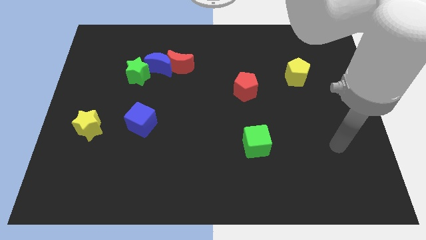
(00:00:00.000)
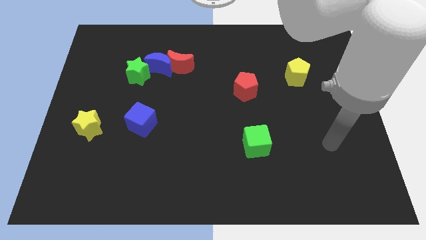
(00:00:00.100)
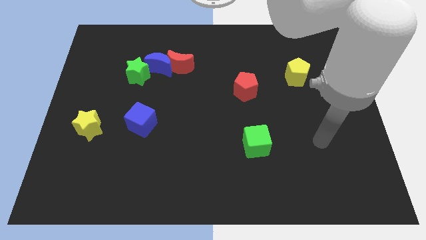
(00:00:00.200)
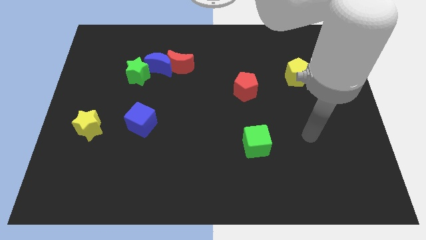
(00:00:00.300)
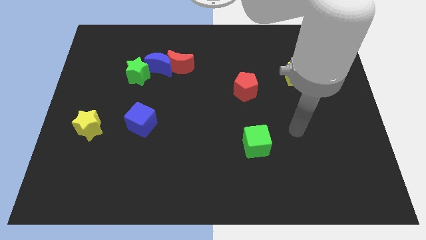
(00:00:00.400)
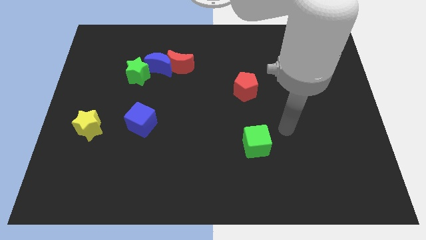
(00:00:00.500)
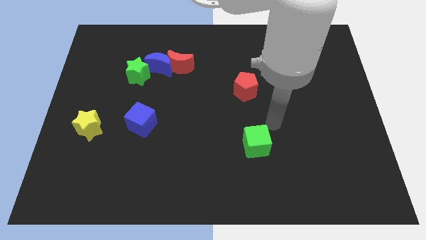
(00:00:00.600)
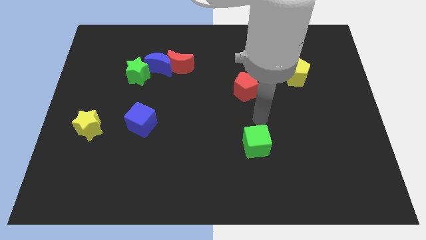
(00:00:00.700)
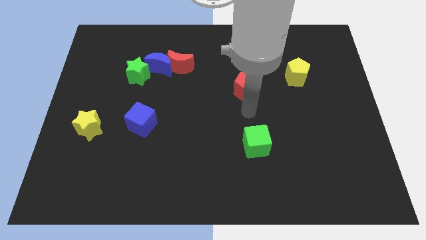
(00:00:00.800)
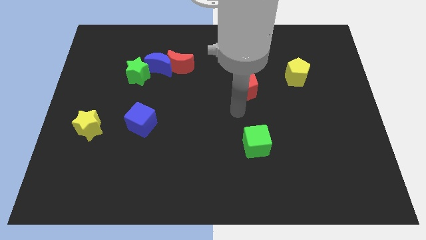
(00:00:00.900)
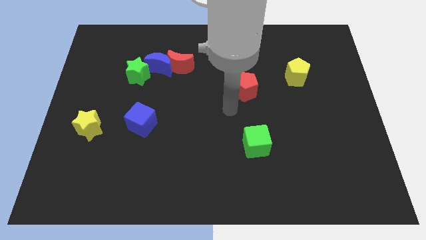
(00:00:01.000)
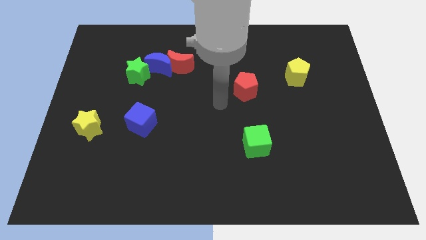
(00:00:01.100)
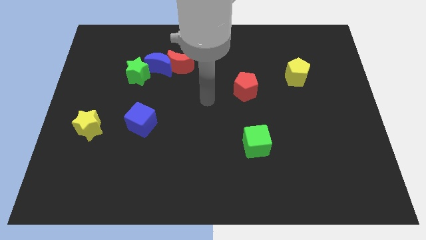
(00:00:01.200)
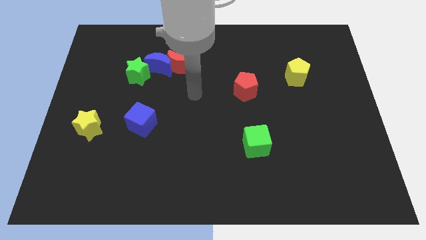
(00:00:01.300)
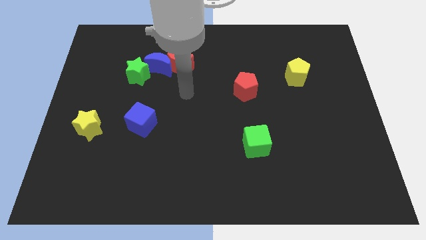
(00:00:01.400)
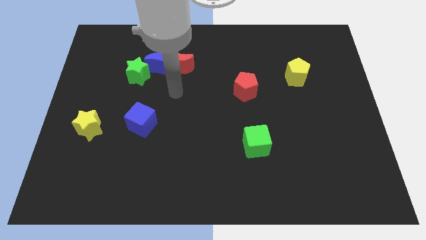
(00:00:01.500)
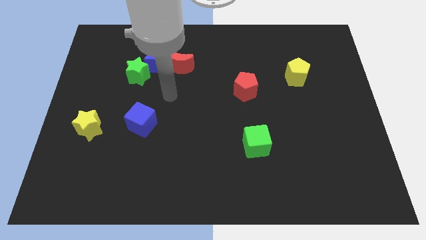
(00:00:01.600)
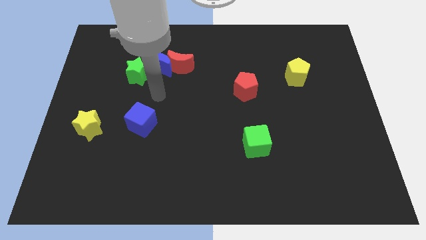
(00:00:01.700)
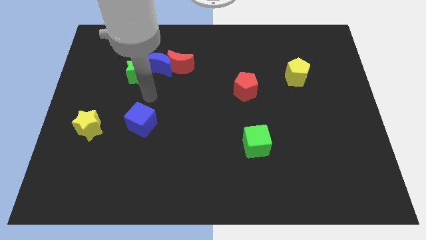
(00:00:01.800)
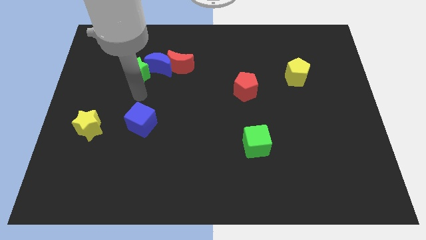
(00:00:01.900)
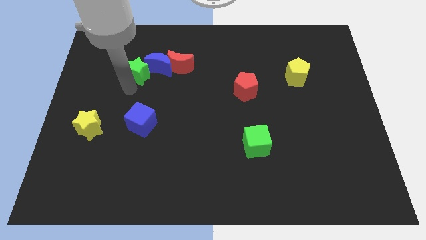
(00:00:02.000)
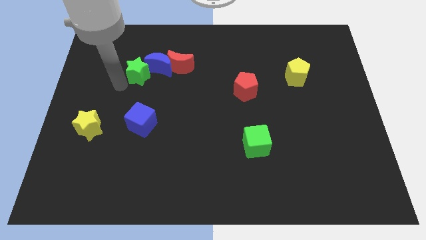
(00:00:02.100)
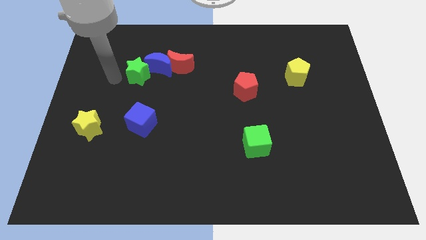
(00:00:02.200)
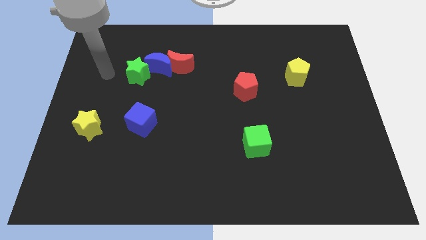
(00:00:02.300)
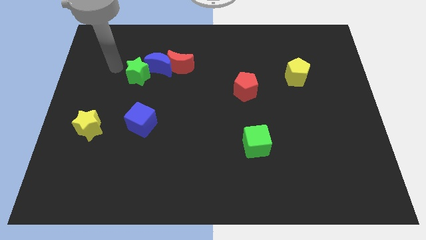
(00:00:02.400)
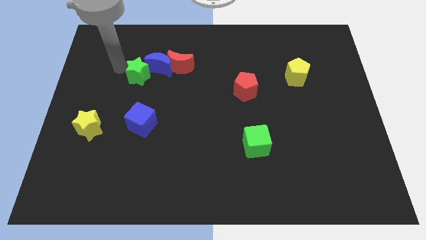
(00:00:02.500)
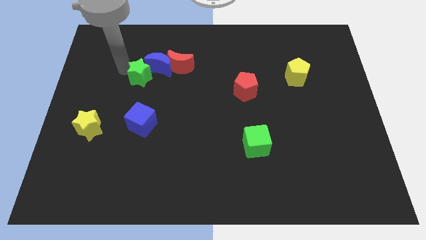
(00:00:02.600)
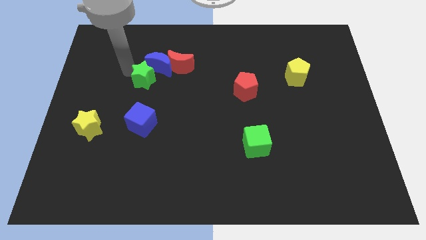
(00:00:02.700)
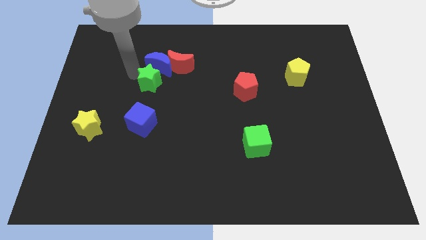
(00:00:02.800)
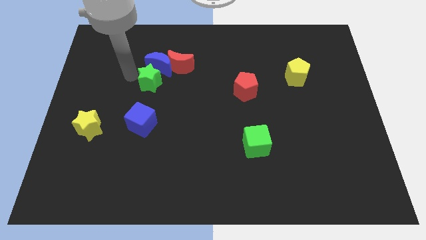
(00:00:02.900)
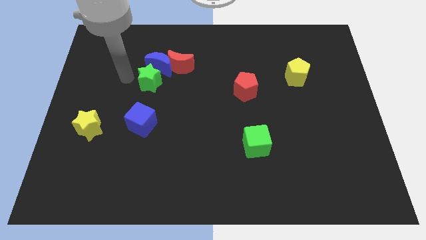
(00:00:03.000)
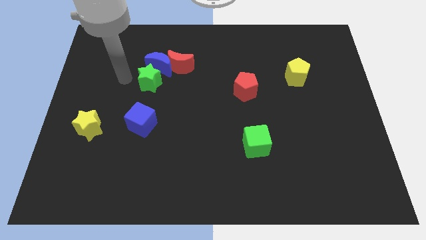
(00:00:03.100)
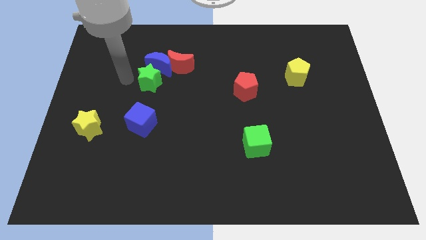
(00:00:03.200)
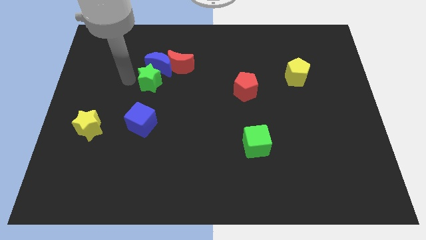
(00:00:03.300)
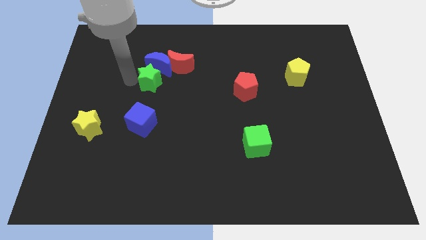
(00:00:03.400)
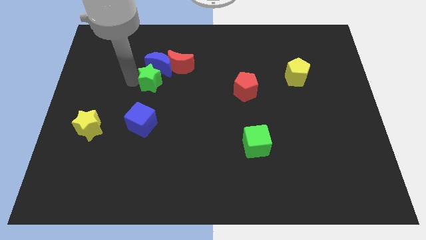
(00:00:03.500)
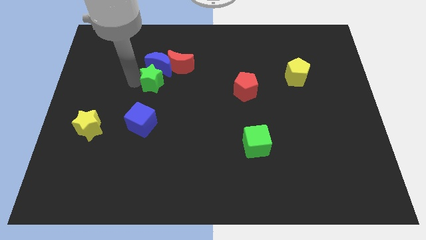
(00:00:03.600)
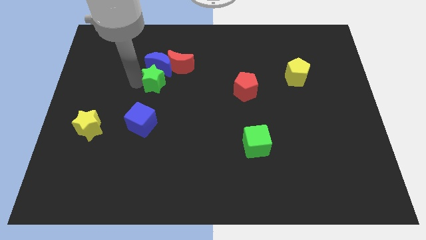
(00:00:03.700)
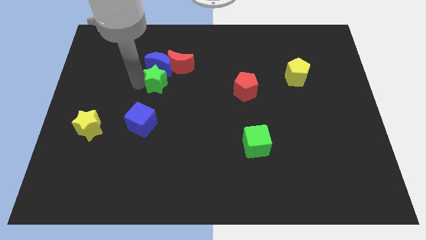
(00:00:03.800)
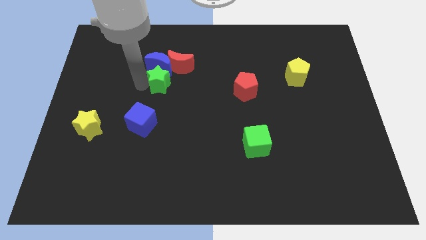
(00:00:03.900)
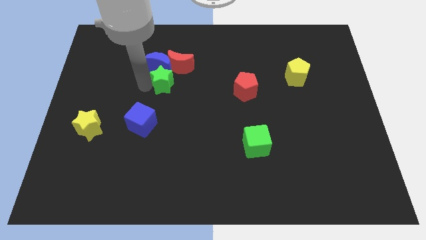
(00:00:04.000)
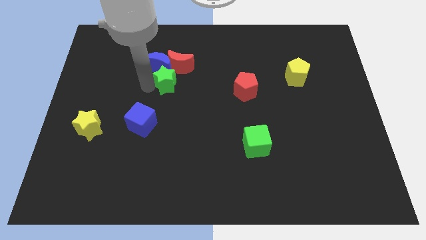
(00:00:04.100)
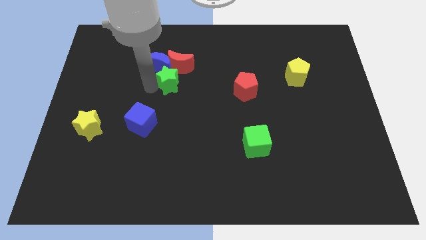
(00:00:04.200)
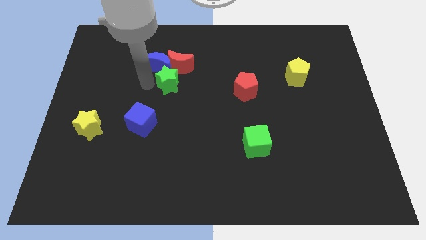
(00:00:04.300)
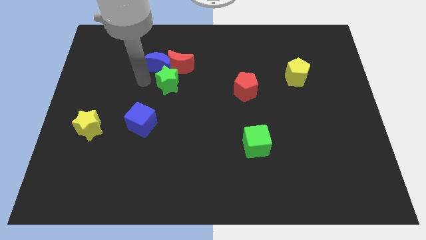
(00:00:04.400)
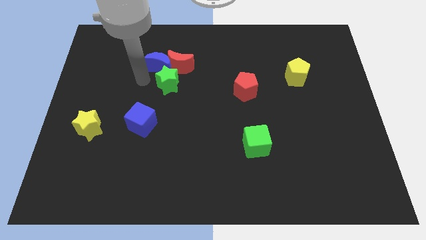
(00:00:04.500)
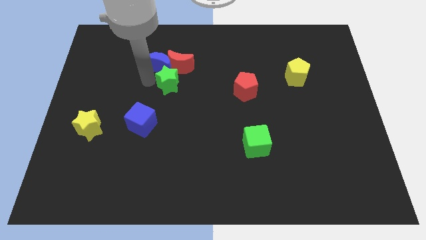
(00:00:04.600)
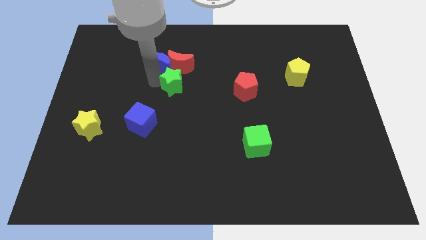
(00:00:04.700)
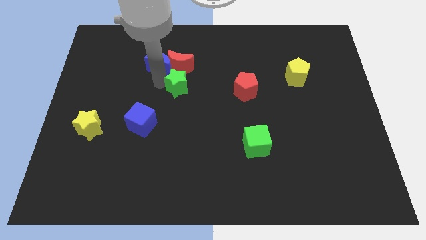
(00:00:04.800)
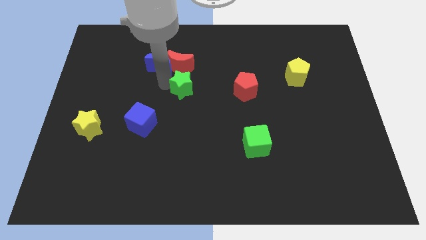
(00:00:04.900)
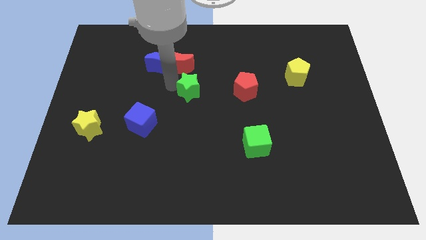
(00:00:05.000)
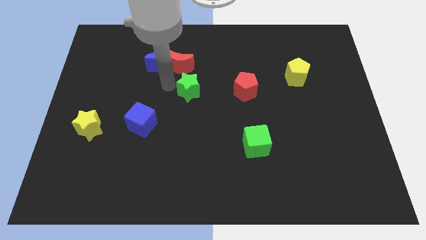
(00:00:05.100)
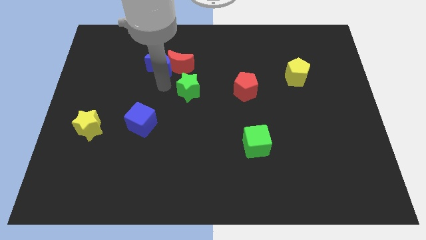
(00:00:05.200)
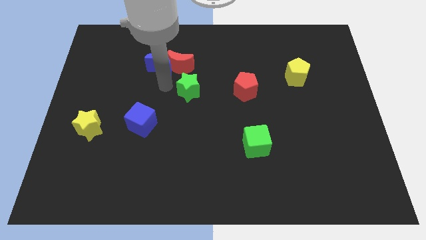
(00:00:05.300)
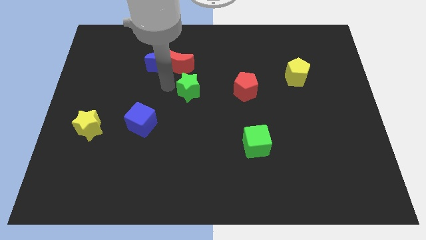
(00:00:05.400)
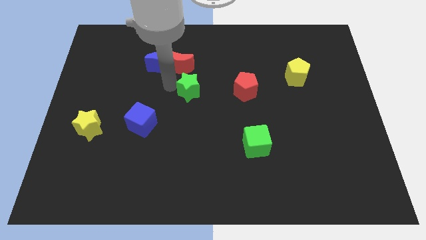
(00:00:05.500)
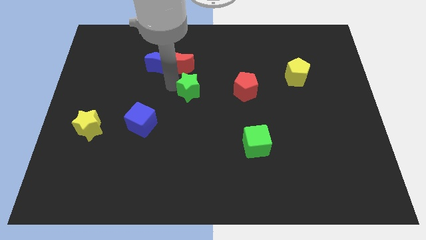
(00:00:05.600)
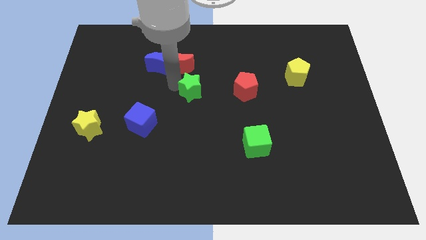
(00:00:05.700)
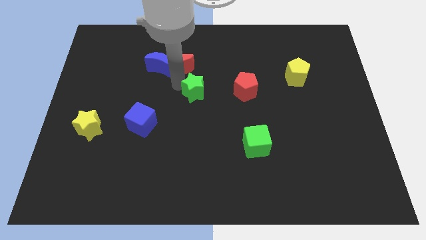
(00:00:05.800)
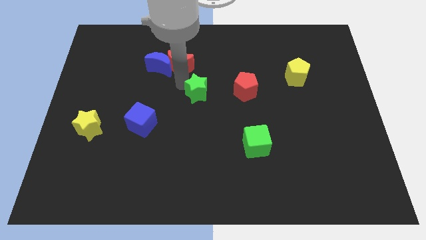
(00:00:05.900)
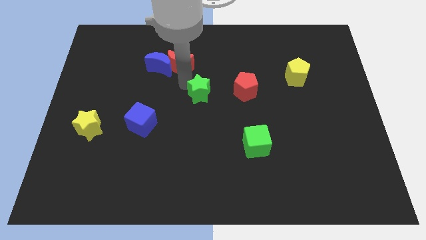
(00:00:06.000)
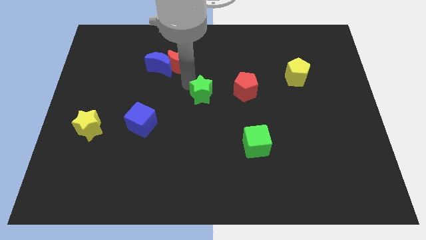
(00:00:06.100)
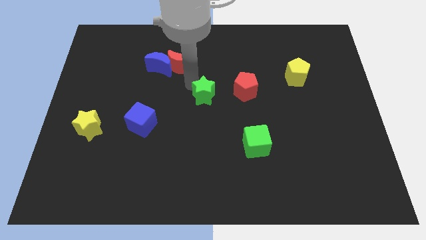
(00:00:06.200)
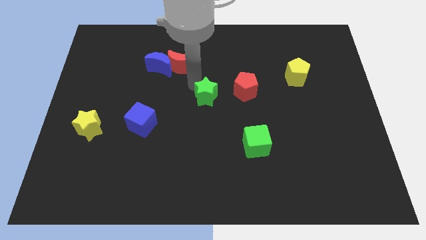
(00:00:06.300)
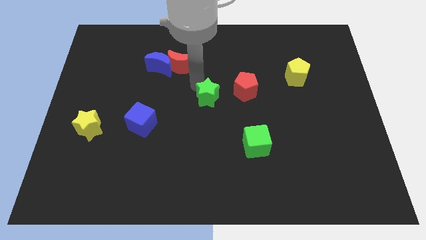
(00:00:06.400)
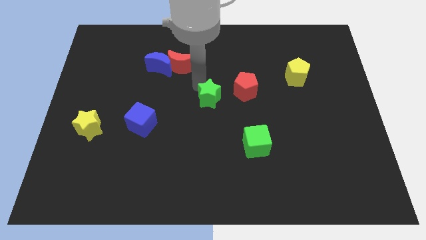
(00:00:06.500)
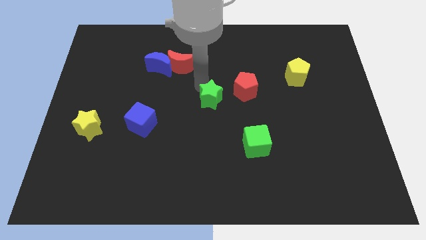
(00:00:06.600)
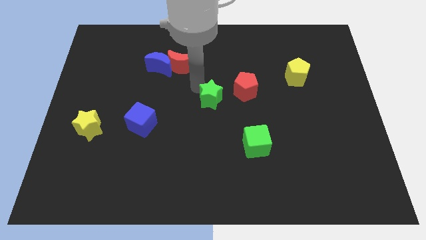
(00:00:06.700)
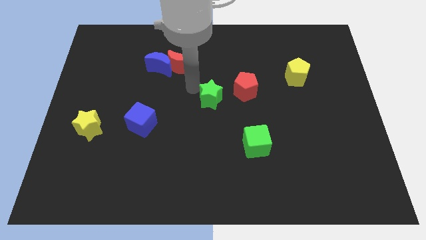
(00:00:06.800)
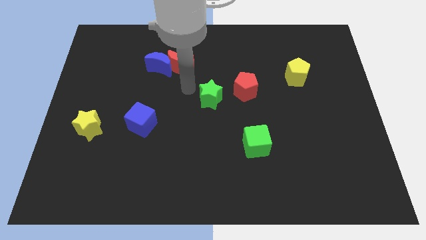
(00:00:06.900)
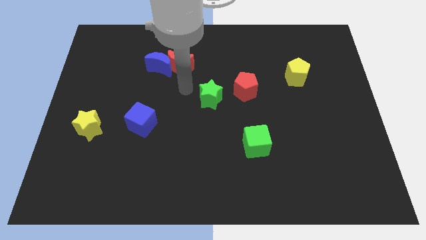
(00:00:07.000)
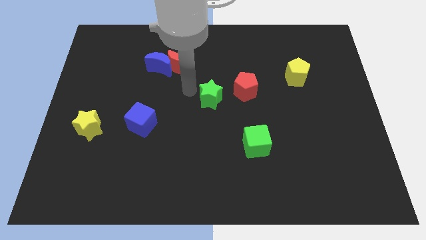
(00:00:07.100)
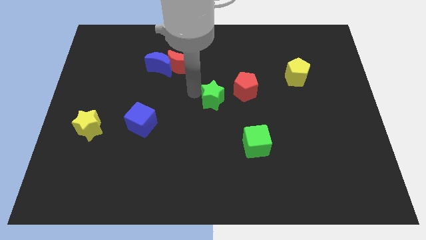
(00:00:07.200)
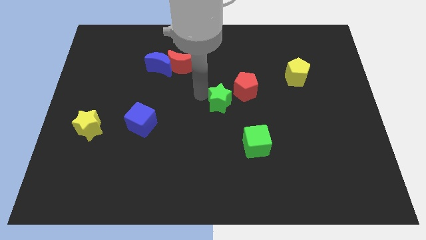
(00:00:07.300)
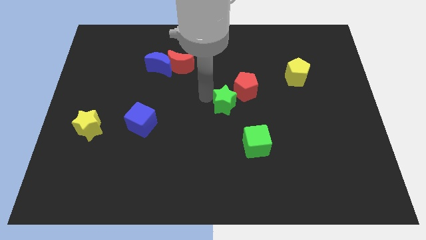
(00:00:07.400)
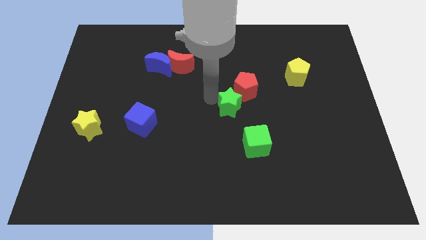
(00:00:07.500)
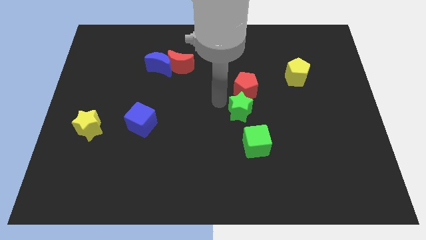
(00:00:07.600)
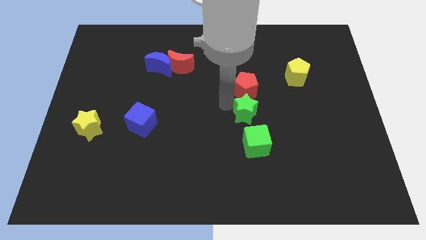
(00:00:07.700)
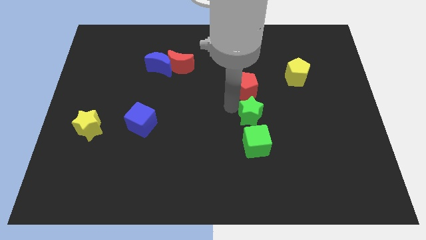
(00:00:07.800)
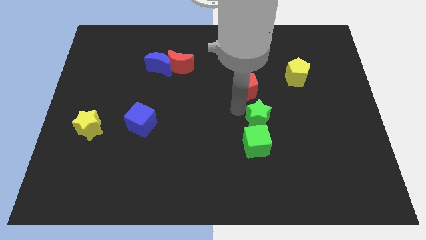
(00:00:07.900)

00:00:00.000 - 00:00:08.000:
put the green star diagonally up and to the right of the green cube
